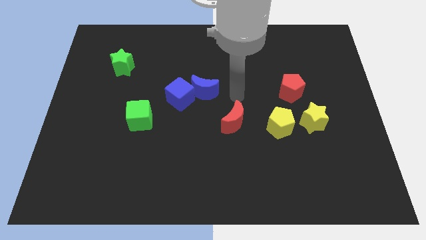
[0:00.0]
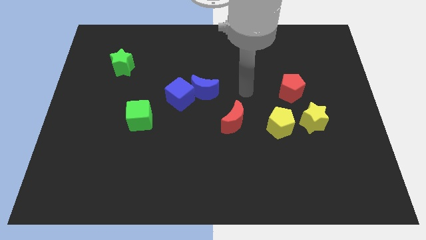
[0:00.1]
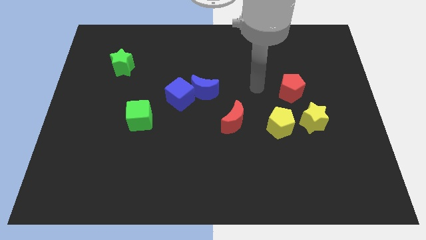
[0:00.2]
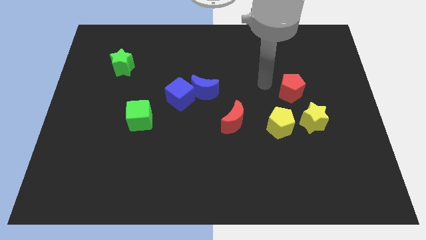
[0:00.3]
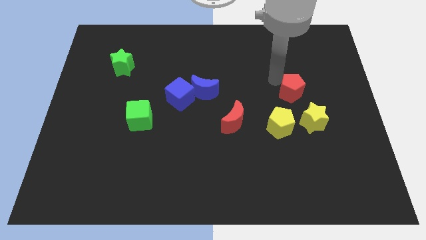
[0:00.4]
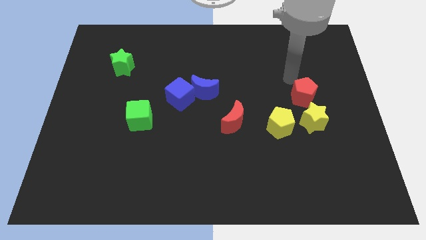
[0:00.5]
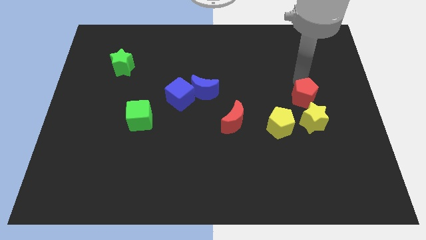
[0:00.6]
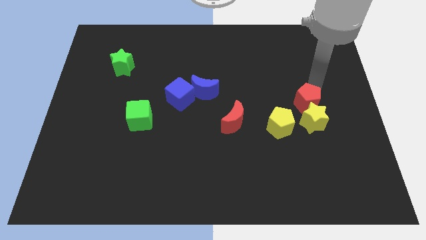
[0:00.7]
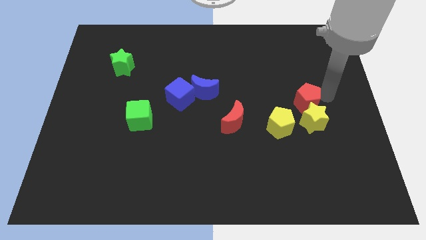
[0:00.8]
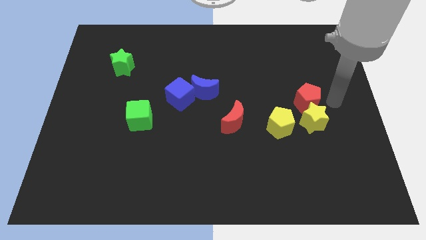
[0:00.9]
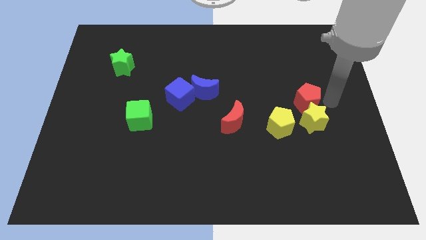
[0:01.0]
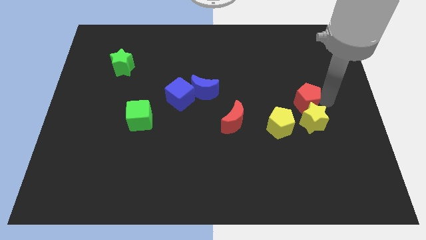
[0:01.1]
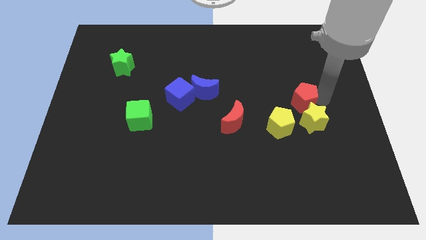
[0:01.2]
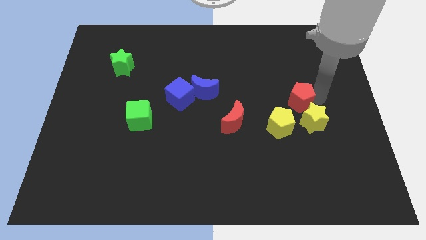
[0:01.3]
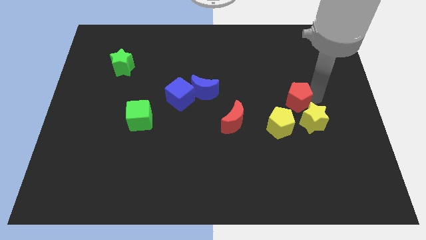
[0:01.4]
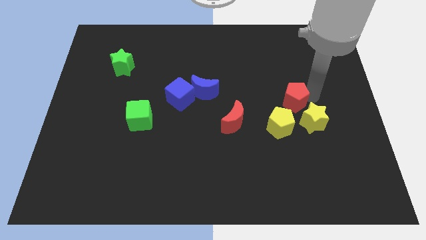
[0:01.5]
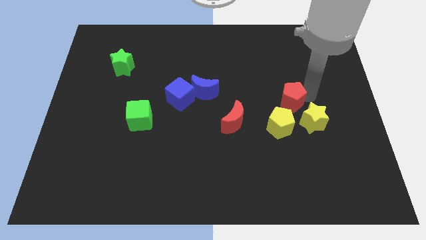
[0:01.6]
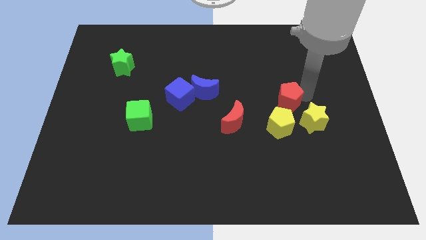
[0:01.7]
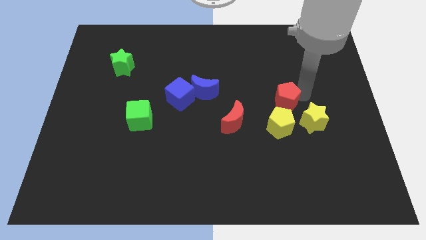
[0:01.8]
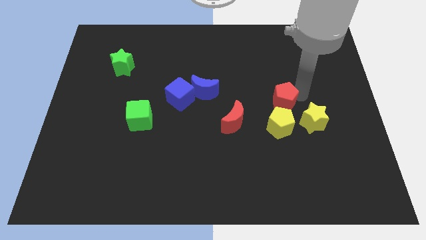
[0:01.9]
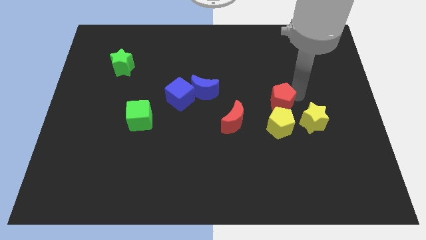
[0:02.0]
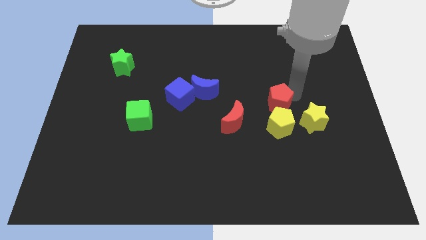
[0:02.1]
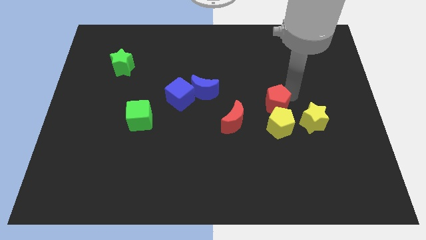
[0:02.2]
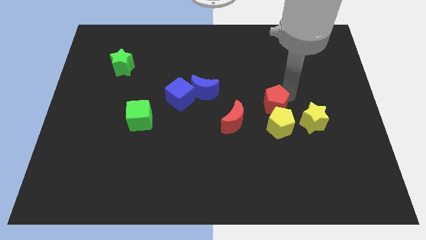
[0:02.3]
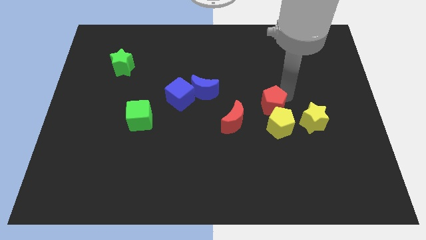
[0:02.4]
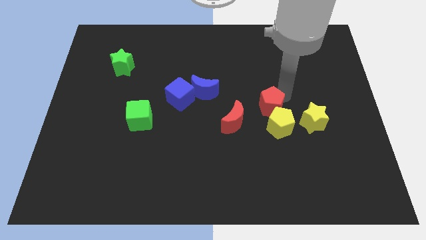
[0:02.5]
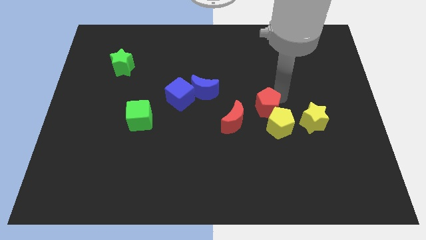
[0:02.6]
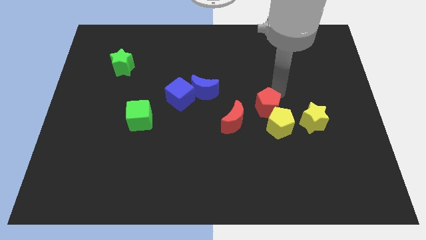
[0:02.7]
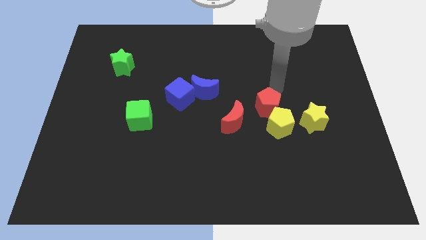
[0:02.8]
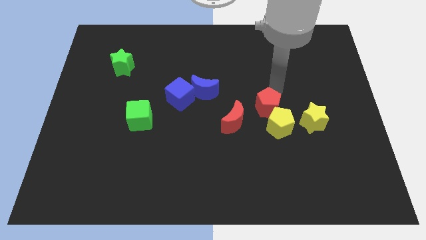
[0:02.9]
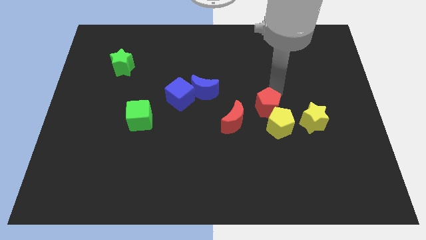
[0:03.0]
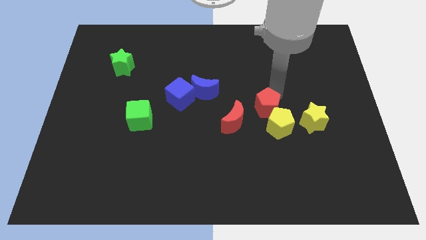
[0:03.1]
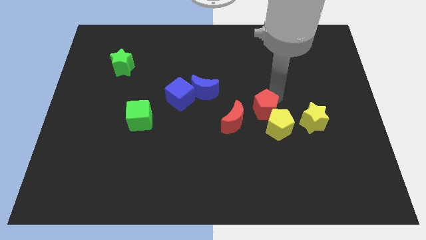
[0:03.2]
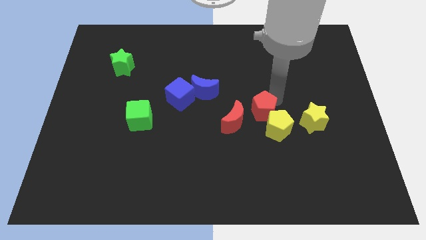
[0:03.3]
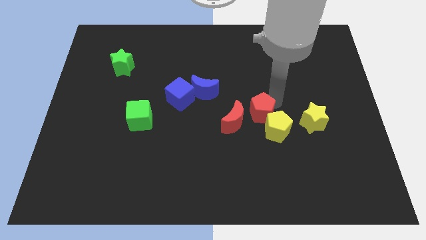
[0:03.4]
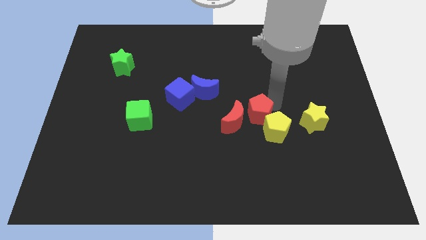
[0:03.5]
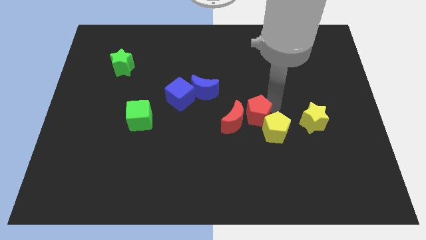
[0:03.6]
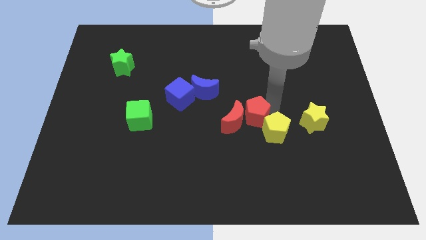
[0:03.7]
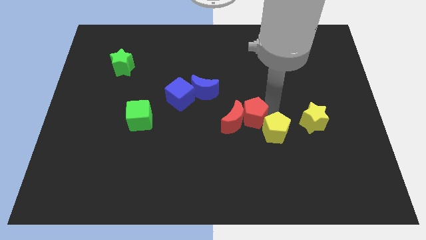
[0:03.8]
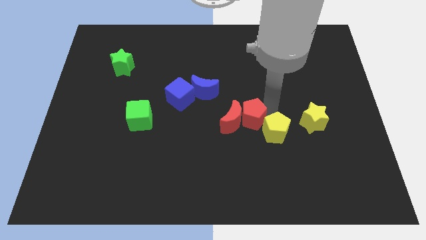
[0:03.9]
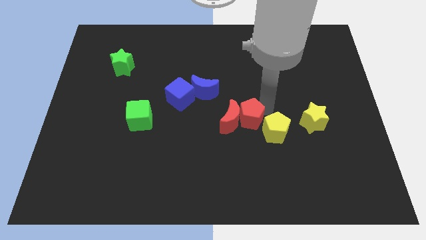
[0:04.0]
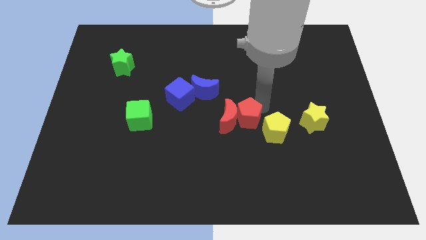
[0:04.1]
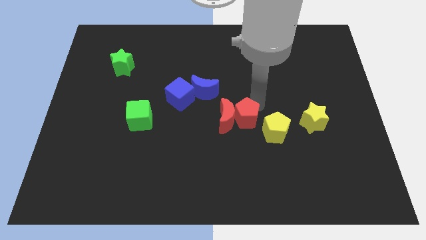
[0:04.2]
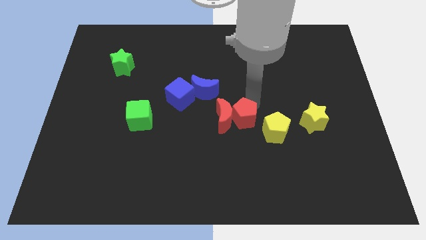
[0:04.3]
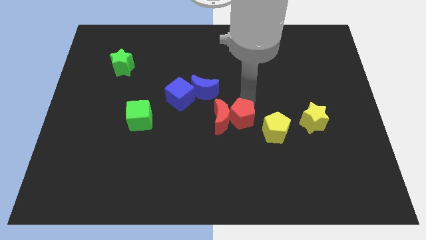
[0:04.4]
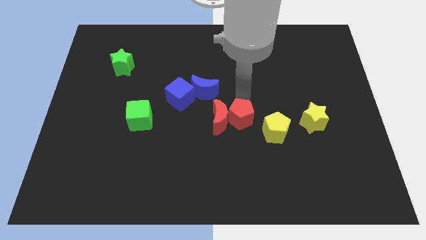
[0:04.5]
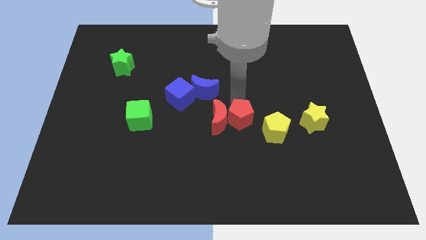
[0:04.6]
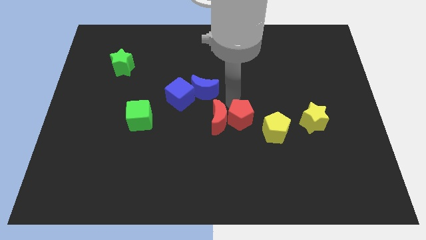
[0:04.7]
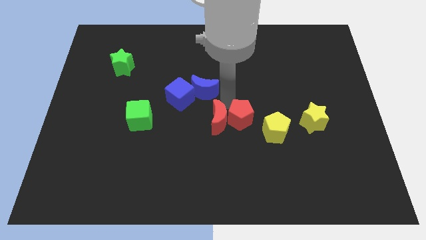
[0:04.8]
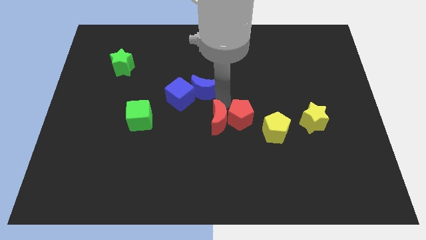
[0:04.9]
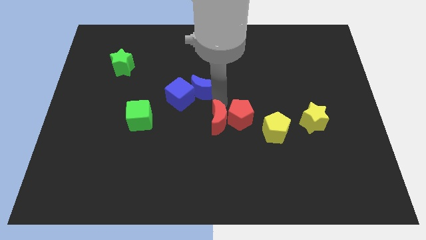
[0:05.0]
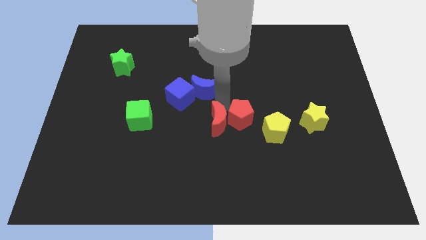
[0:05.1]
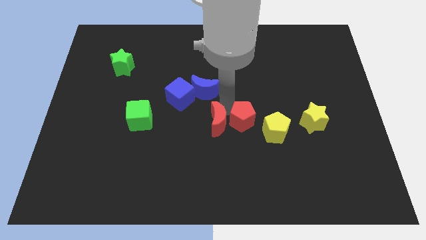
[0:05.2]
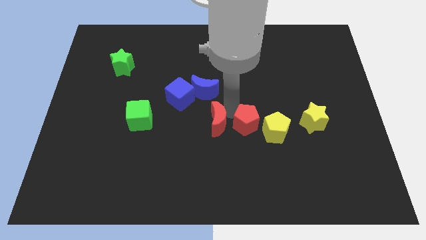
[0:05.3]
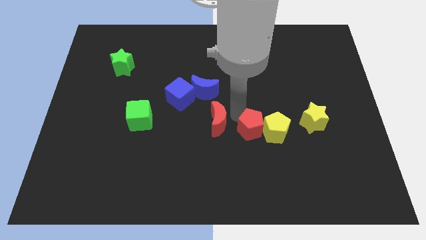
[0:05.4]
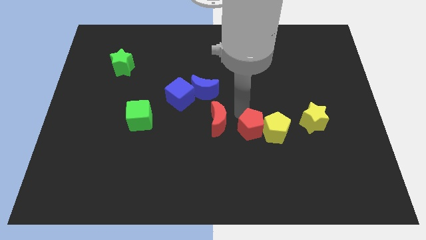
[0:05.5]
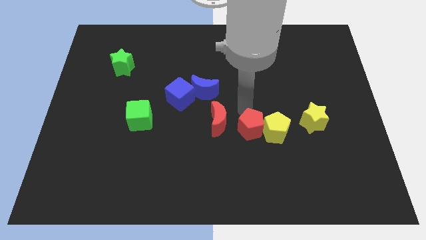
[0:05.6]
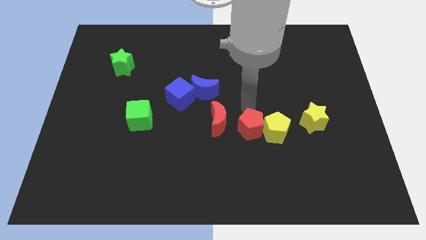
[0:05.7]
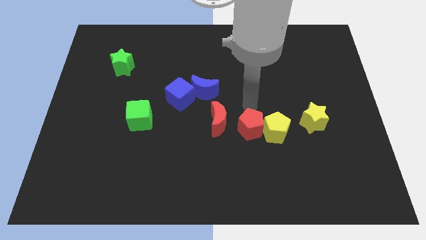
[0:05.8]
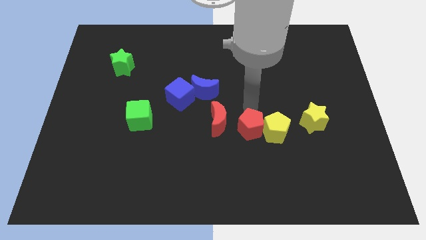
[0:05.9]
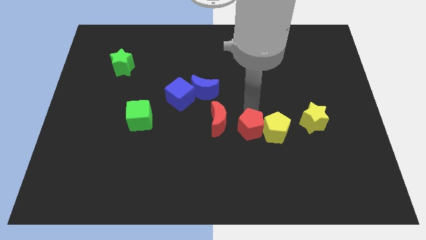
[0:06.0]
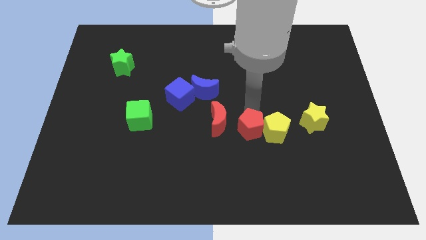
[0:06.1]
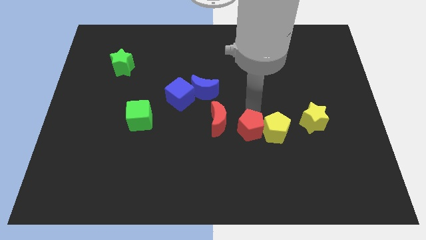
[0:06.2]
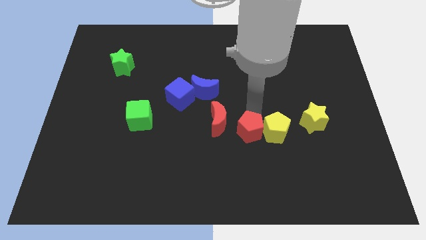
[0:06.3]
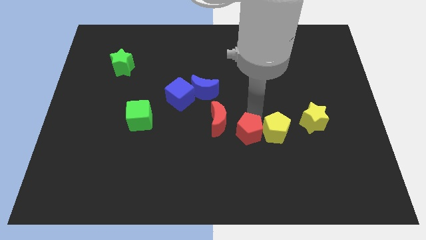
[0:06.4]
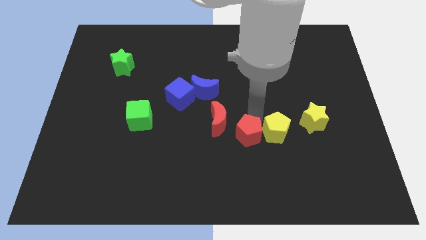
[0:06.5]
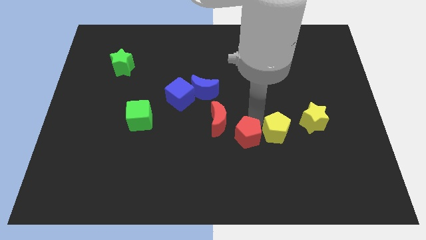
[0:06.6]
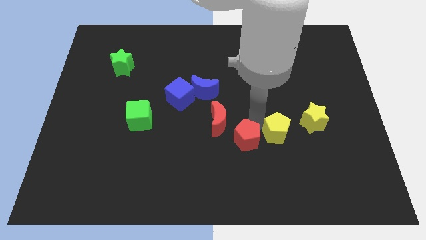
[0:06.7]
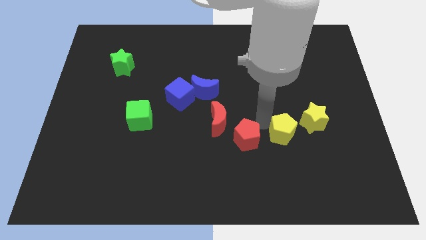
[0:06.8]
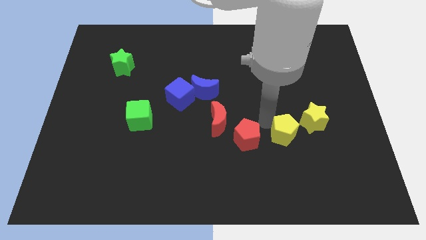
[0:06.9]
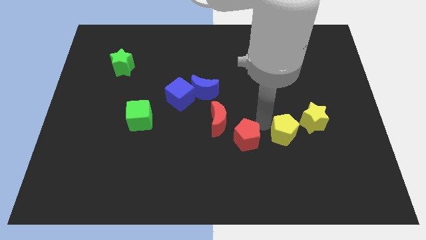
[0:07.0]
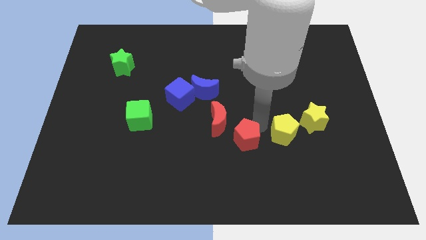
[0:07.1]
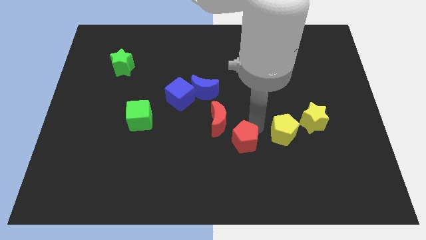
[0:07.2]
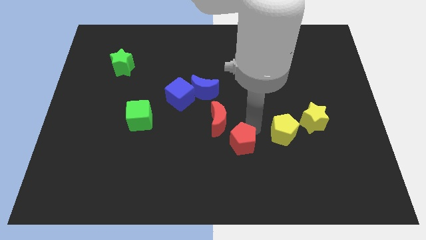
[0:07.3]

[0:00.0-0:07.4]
move the red pentagon to the bottom of the red moon
